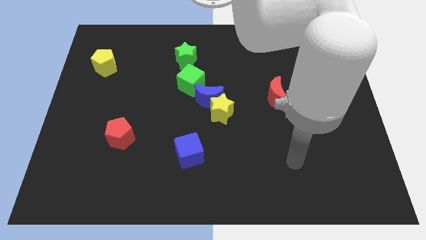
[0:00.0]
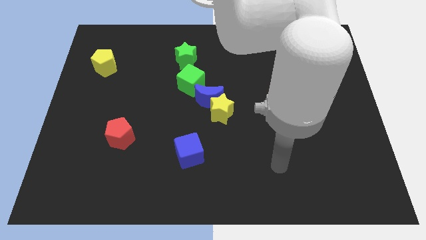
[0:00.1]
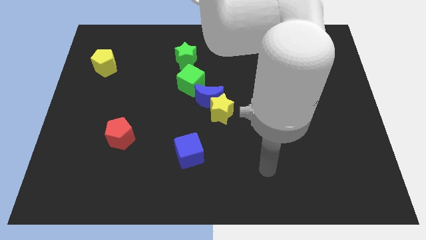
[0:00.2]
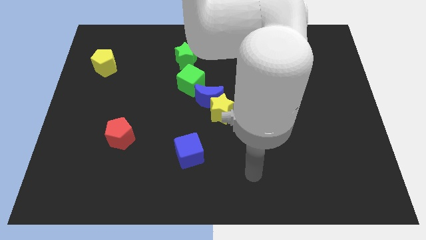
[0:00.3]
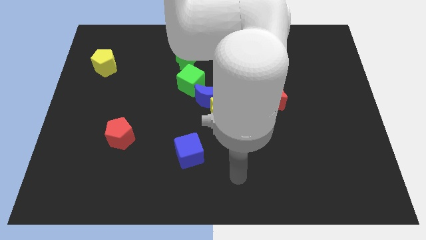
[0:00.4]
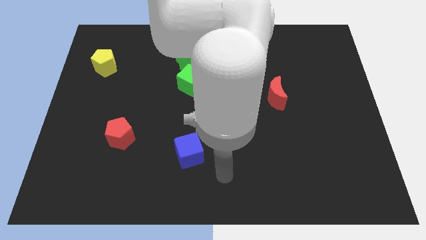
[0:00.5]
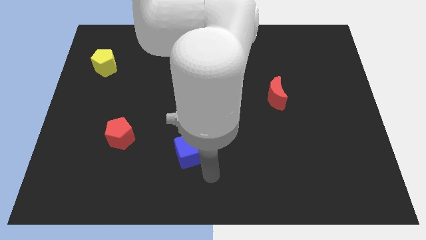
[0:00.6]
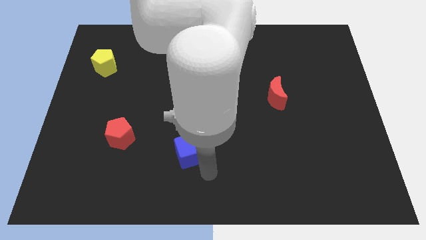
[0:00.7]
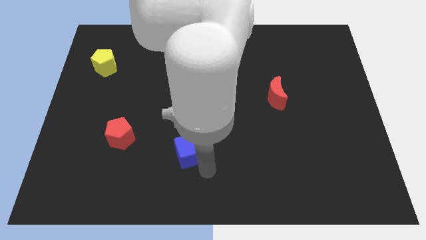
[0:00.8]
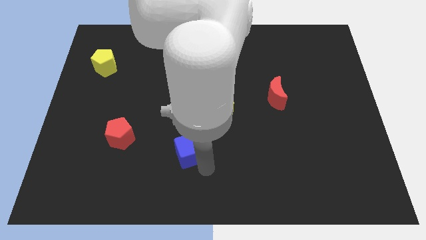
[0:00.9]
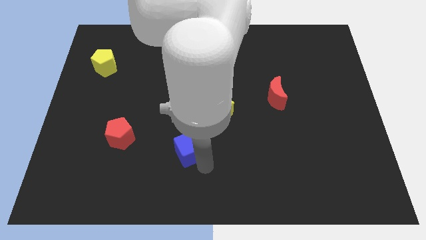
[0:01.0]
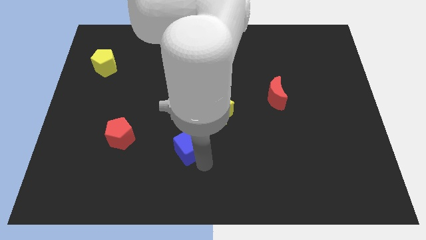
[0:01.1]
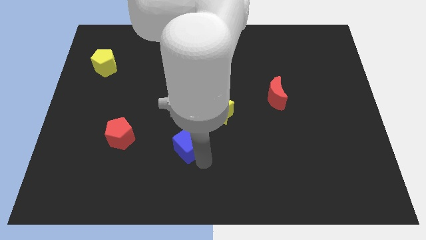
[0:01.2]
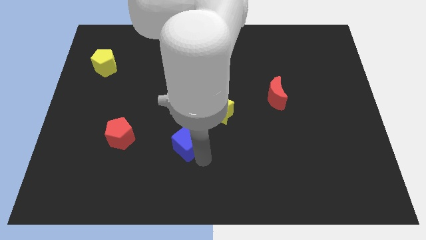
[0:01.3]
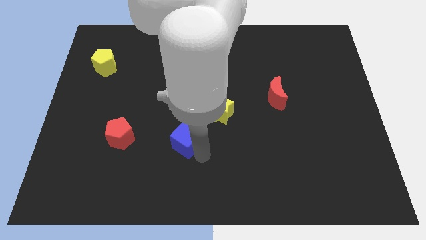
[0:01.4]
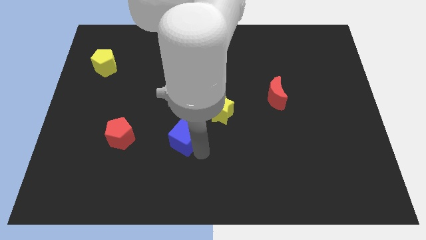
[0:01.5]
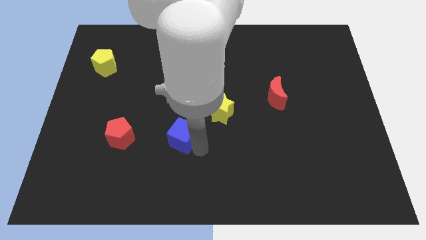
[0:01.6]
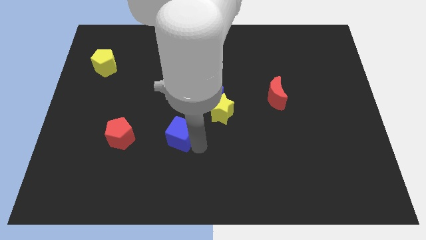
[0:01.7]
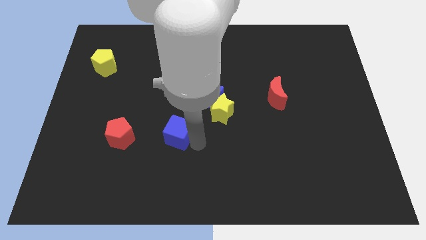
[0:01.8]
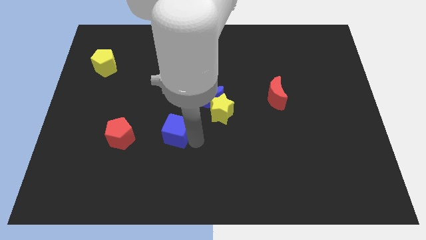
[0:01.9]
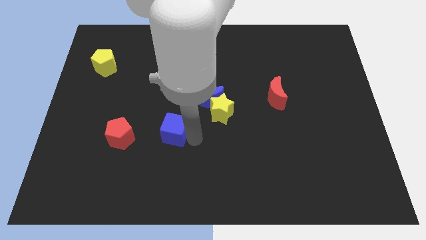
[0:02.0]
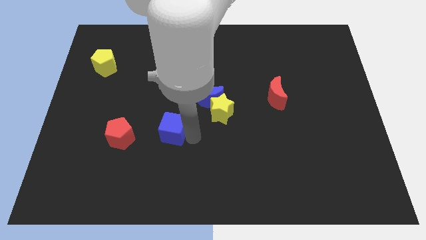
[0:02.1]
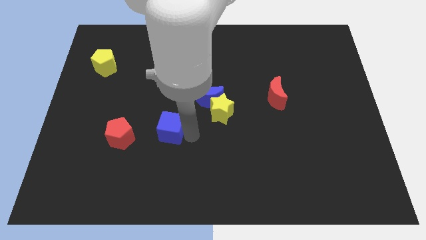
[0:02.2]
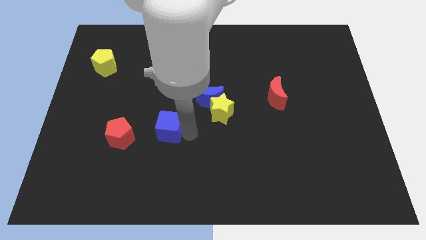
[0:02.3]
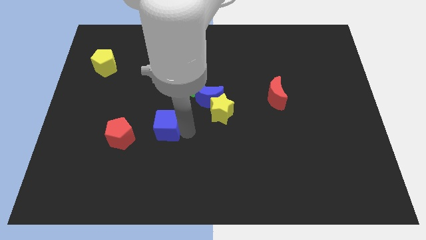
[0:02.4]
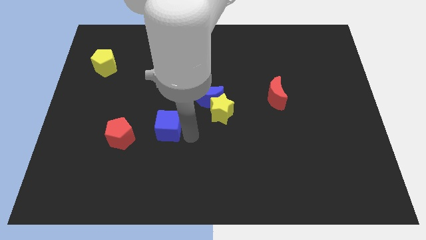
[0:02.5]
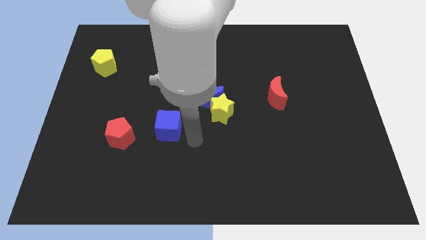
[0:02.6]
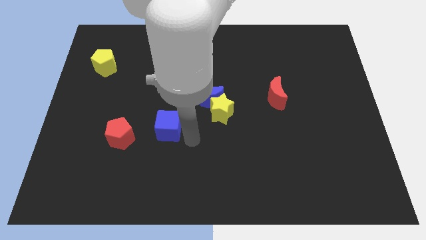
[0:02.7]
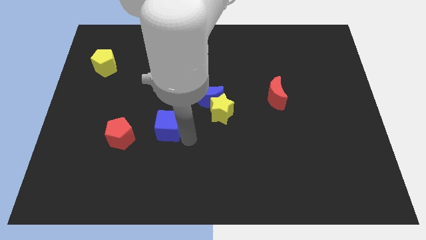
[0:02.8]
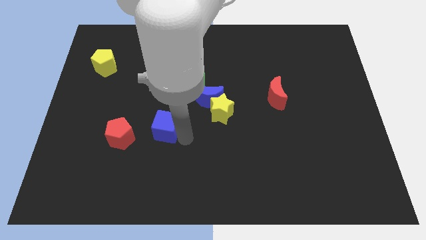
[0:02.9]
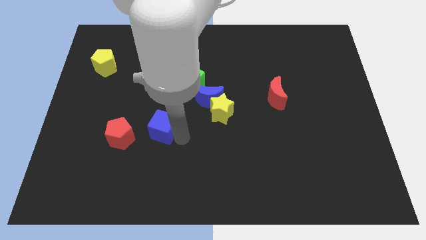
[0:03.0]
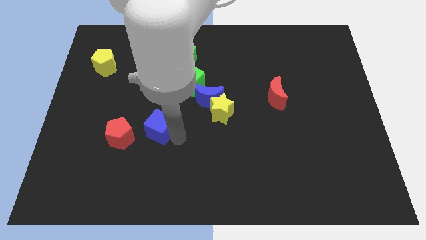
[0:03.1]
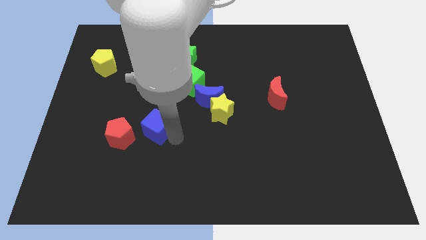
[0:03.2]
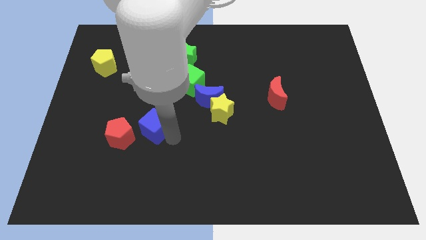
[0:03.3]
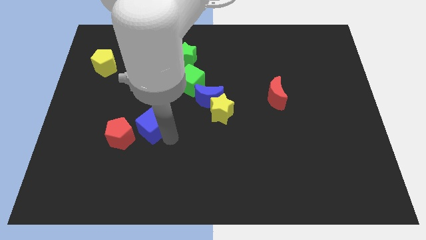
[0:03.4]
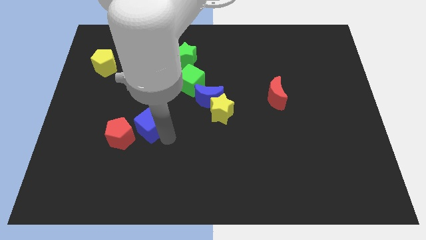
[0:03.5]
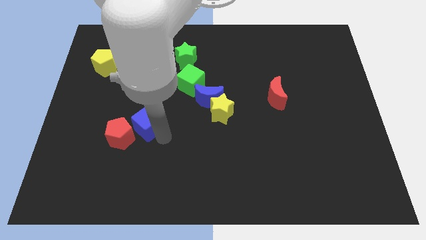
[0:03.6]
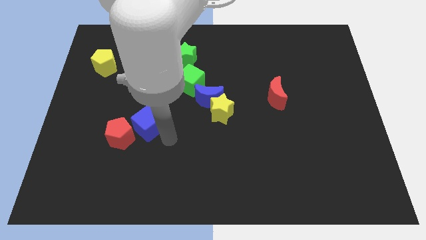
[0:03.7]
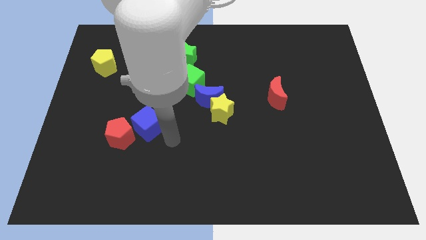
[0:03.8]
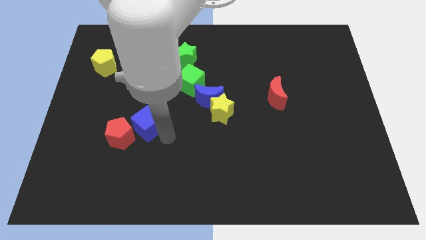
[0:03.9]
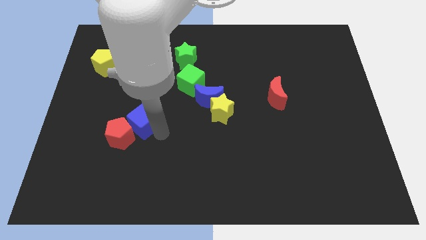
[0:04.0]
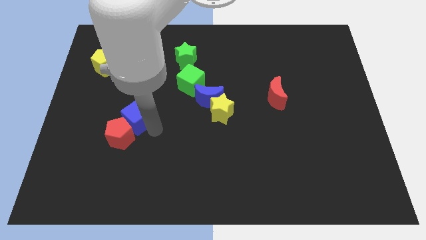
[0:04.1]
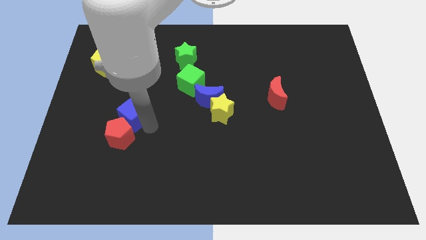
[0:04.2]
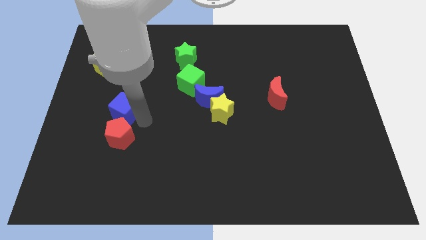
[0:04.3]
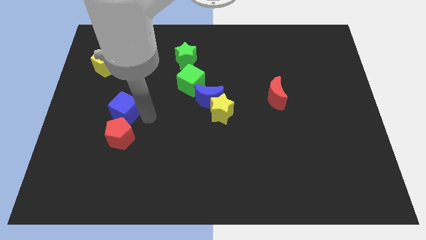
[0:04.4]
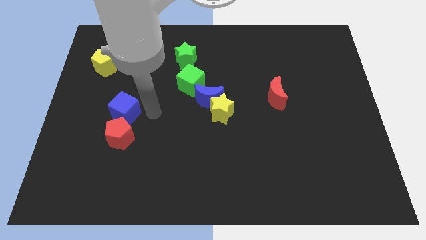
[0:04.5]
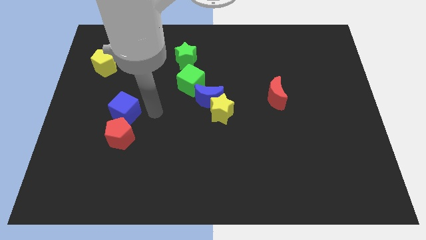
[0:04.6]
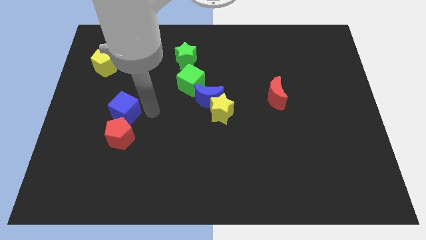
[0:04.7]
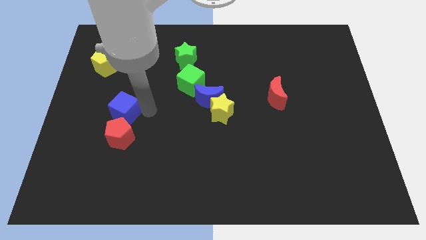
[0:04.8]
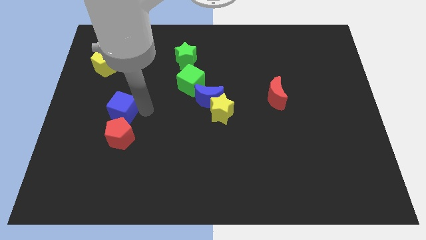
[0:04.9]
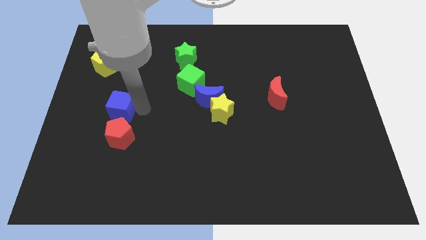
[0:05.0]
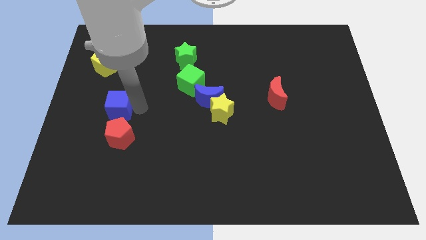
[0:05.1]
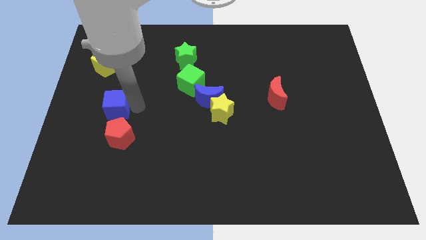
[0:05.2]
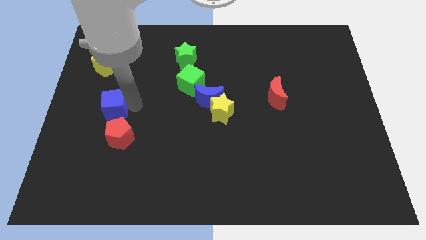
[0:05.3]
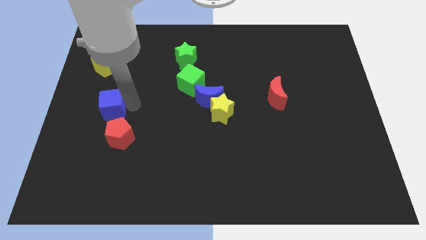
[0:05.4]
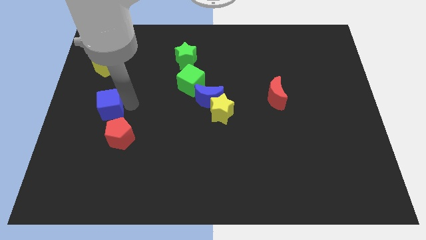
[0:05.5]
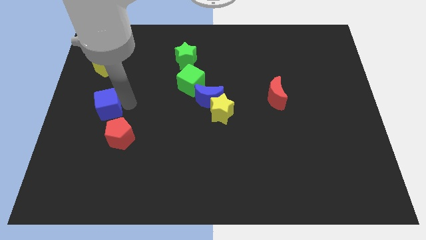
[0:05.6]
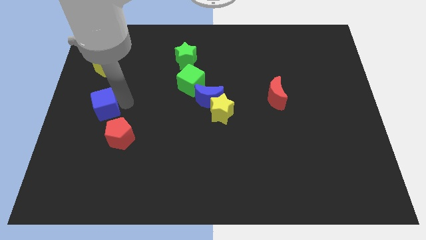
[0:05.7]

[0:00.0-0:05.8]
move the blue cube to the left side

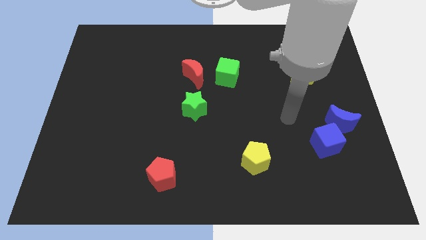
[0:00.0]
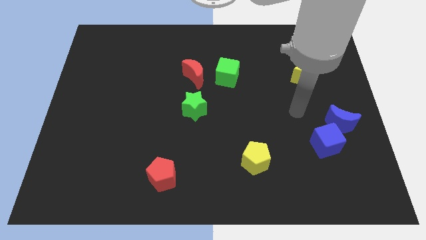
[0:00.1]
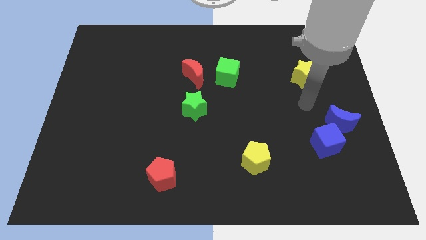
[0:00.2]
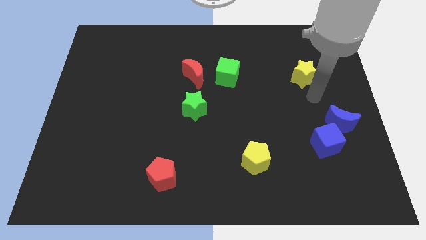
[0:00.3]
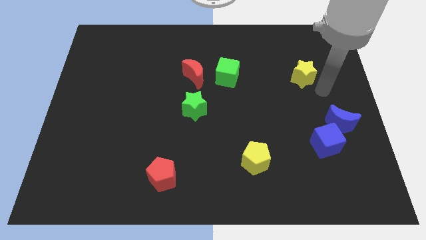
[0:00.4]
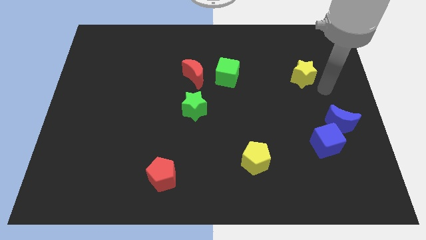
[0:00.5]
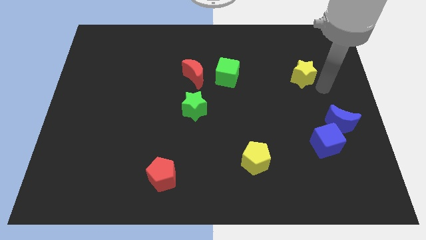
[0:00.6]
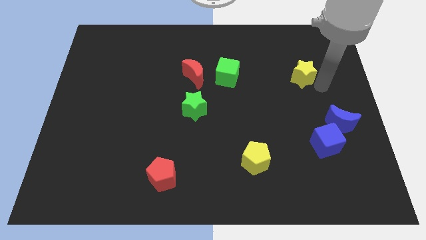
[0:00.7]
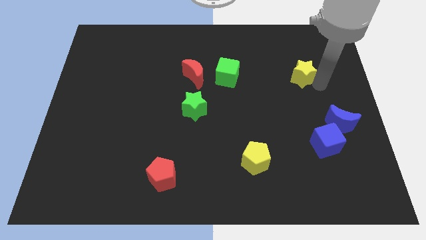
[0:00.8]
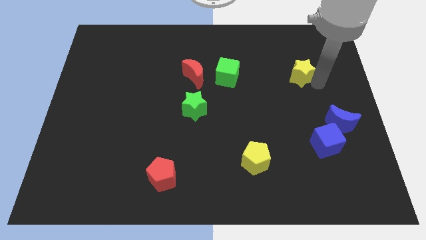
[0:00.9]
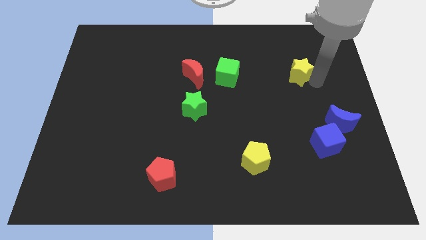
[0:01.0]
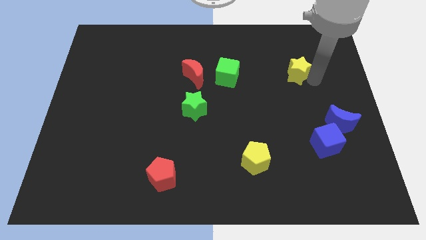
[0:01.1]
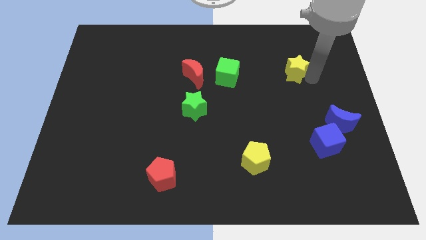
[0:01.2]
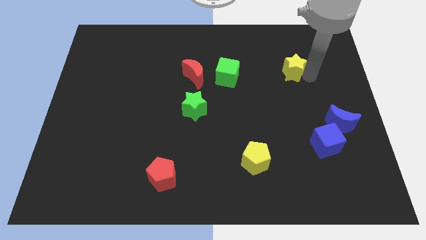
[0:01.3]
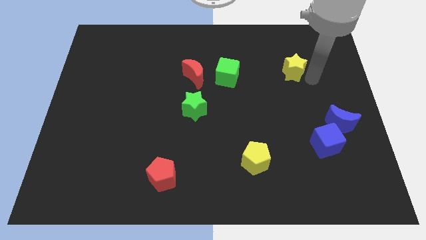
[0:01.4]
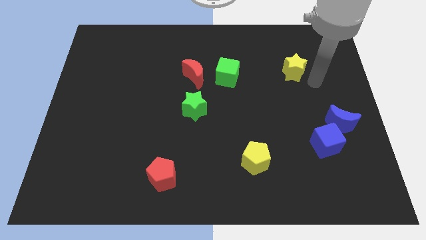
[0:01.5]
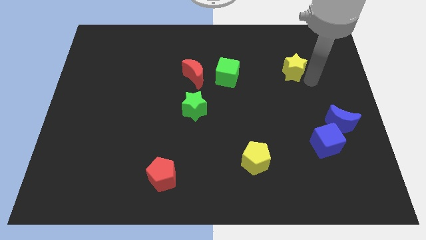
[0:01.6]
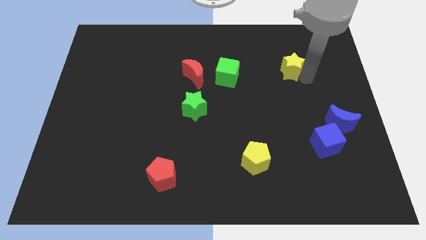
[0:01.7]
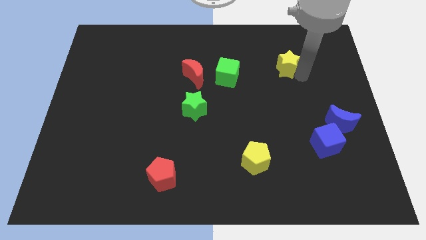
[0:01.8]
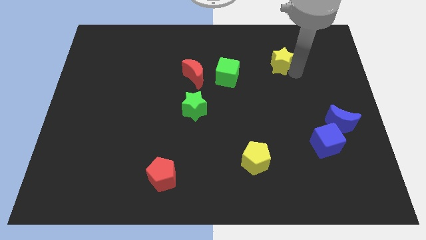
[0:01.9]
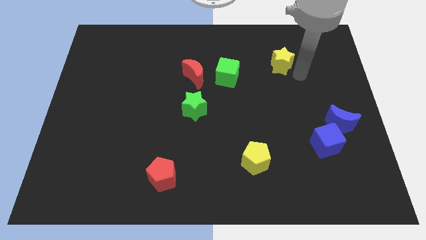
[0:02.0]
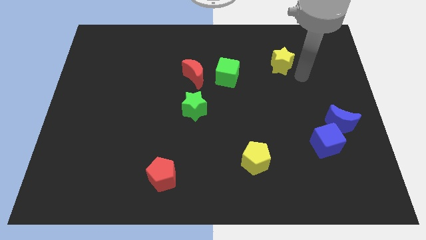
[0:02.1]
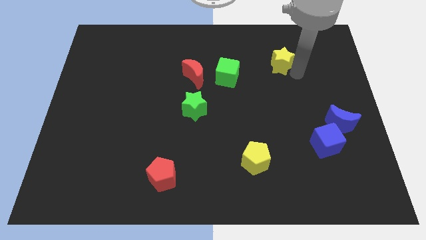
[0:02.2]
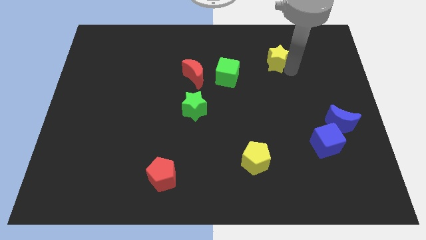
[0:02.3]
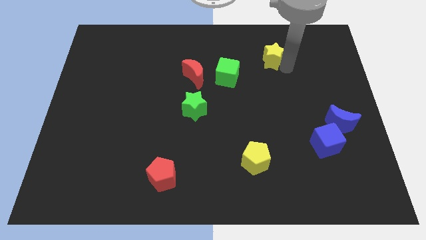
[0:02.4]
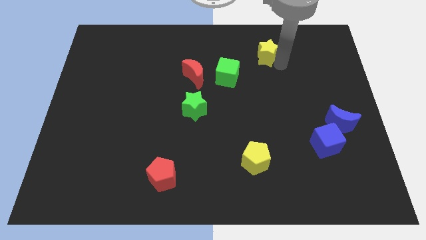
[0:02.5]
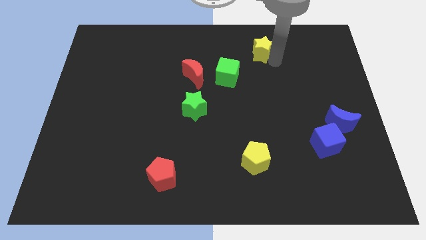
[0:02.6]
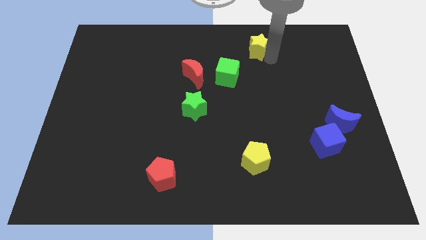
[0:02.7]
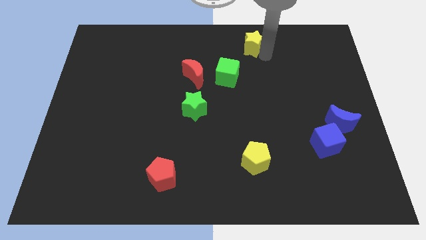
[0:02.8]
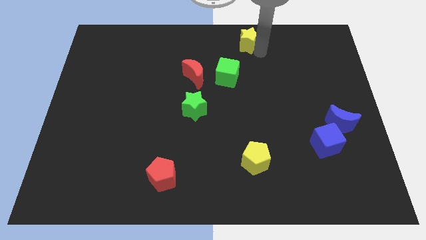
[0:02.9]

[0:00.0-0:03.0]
slide the yellow star to the towards your base
